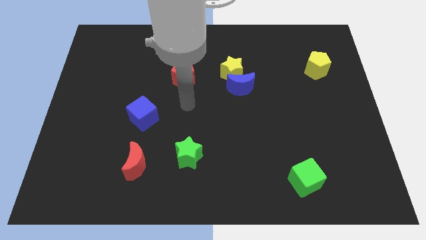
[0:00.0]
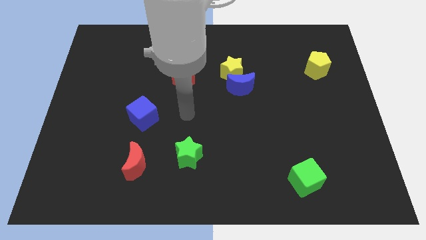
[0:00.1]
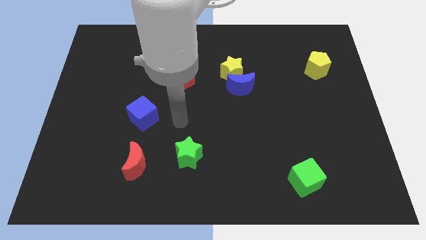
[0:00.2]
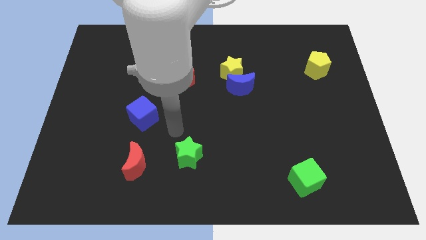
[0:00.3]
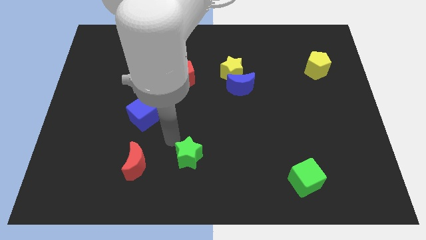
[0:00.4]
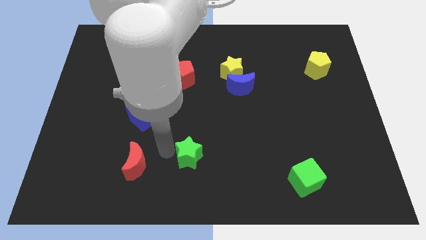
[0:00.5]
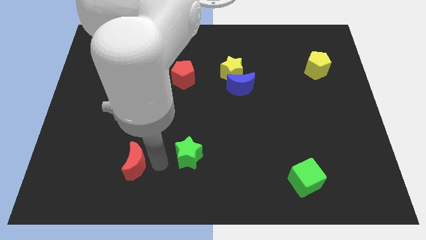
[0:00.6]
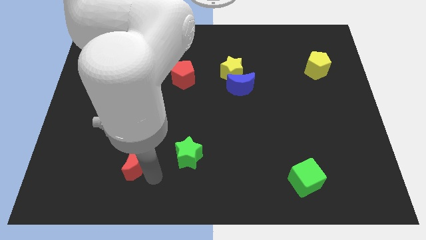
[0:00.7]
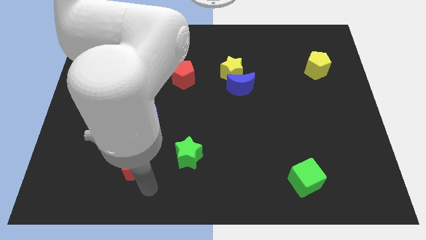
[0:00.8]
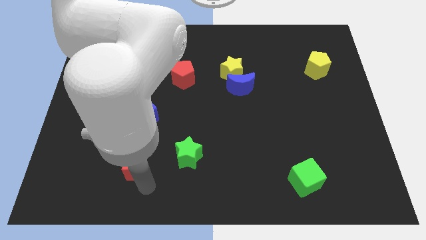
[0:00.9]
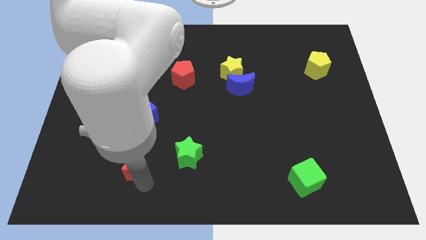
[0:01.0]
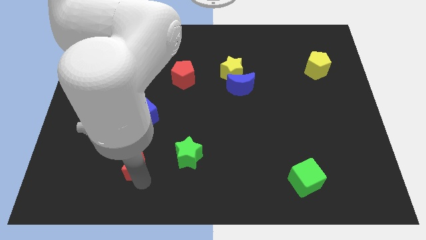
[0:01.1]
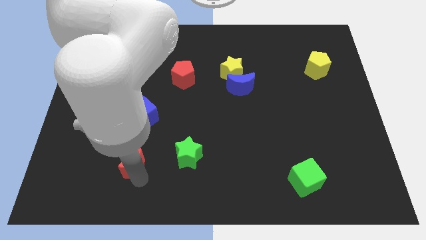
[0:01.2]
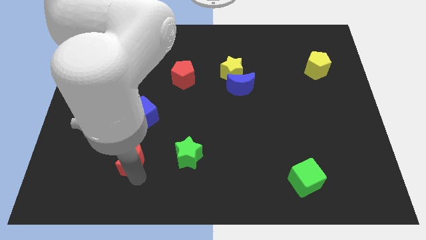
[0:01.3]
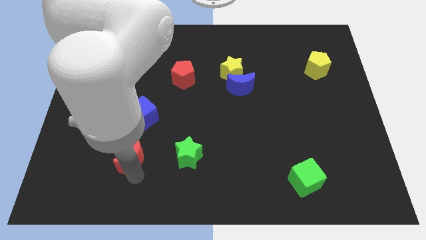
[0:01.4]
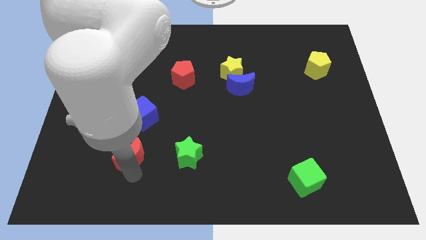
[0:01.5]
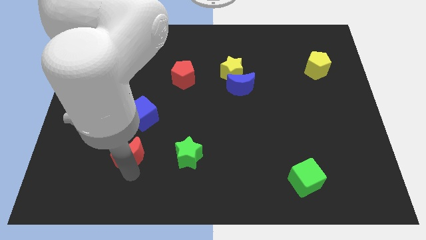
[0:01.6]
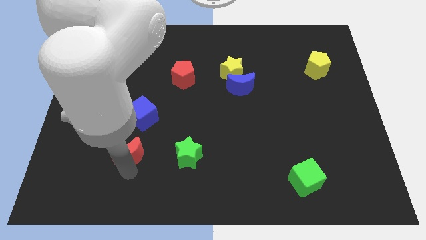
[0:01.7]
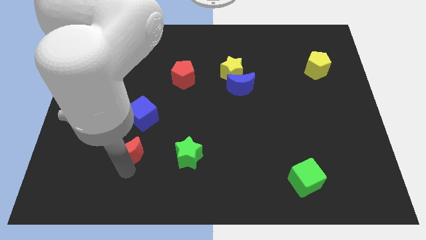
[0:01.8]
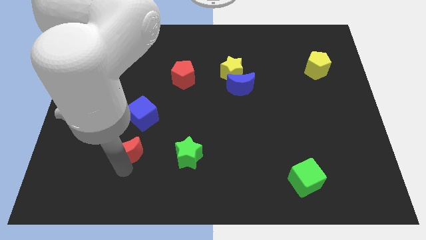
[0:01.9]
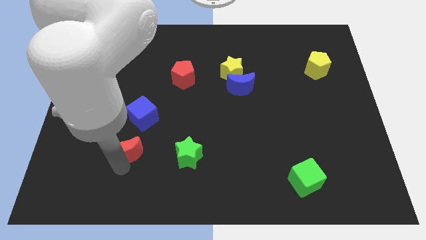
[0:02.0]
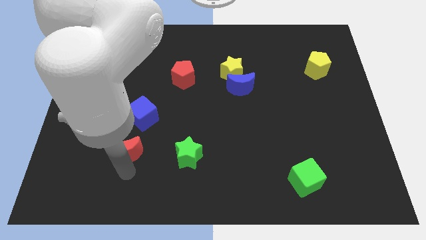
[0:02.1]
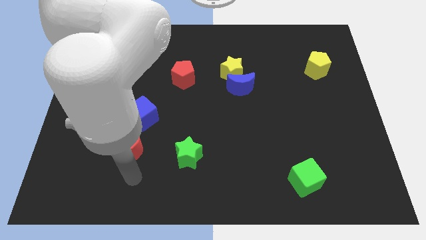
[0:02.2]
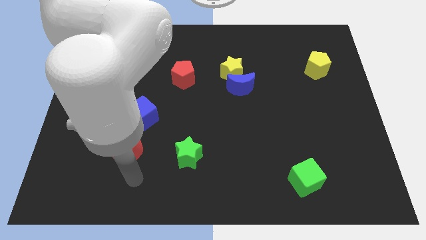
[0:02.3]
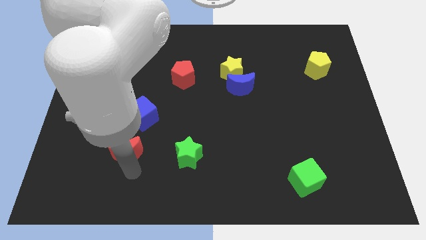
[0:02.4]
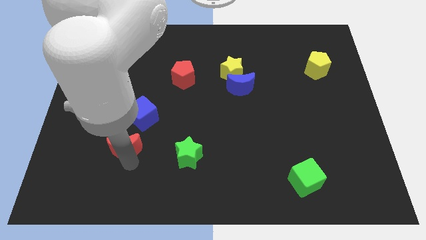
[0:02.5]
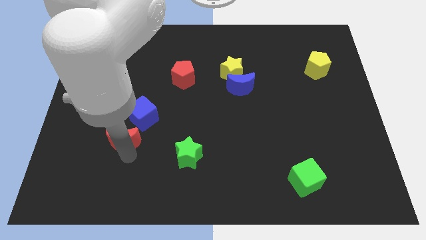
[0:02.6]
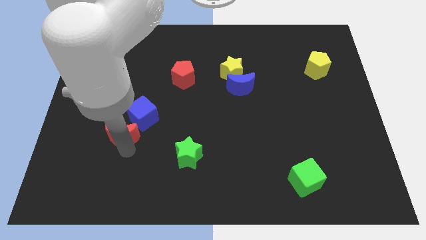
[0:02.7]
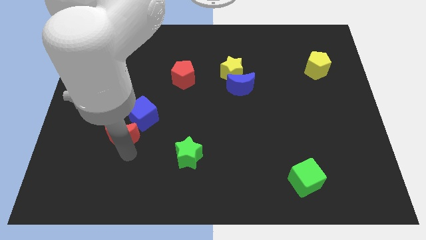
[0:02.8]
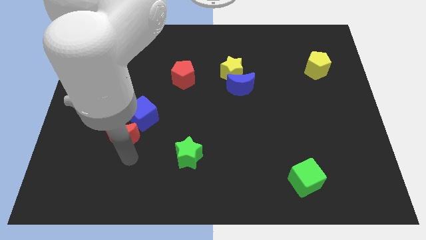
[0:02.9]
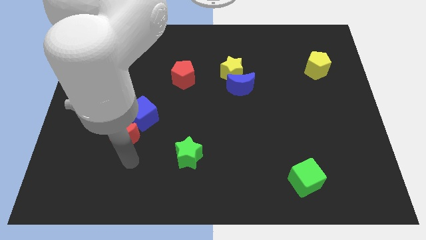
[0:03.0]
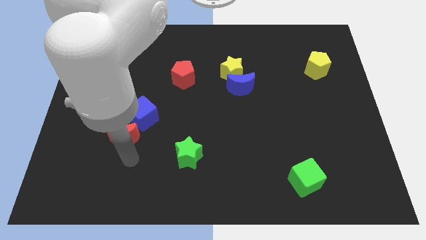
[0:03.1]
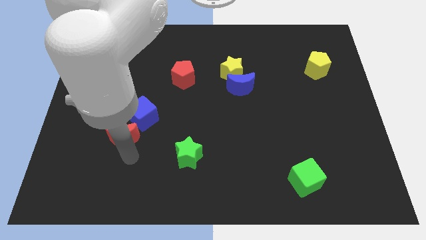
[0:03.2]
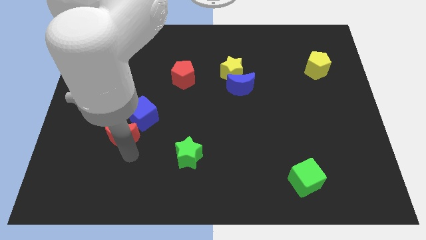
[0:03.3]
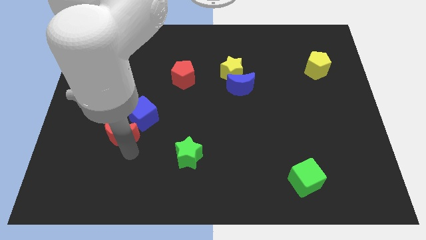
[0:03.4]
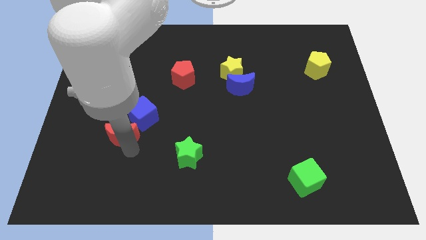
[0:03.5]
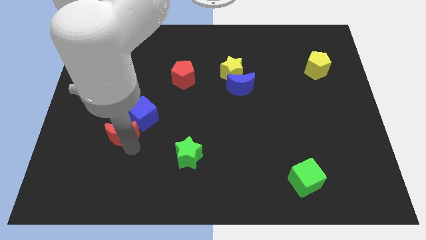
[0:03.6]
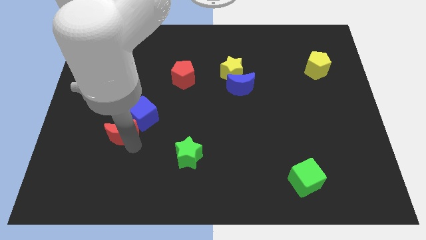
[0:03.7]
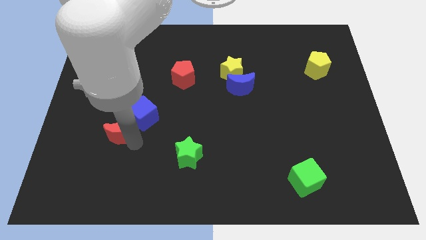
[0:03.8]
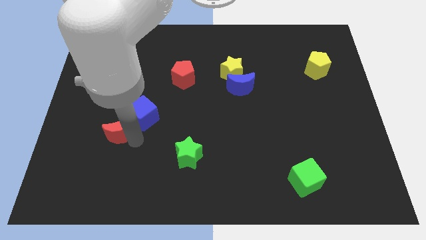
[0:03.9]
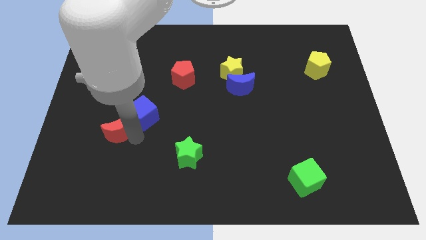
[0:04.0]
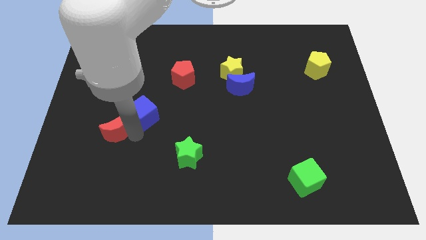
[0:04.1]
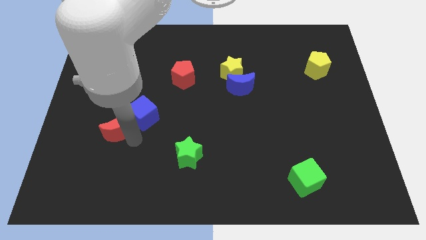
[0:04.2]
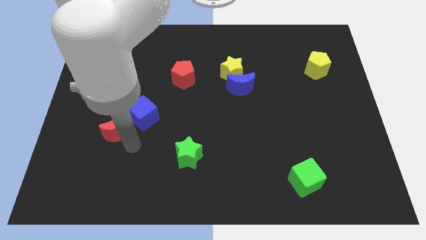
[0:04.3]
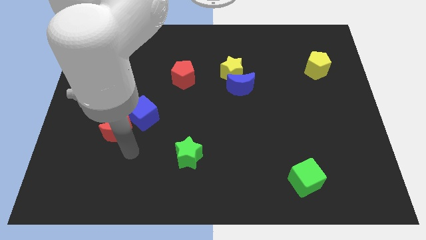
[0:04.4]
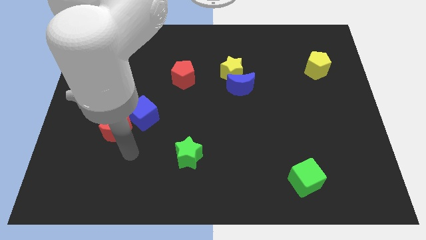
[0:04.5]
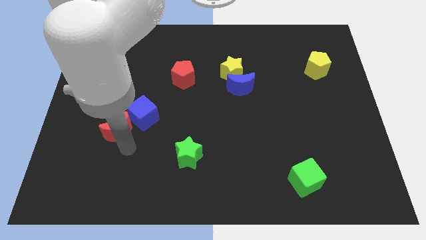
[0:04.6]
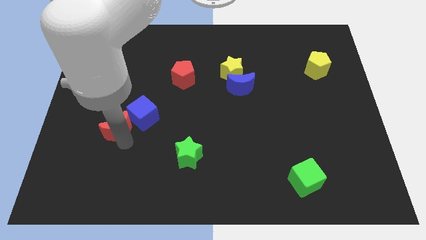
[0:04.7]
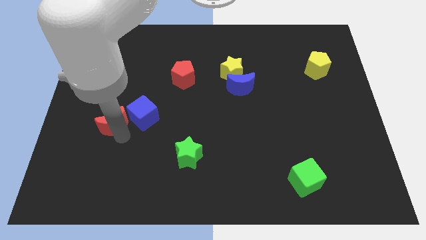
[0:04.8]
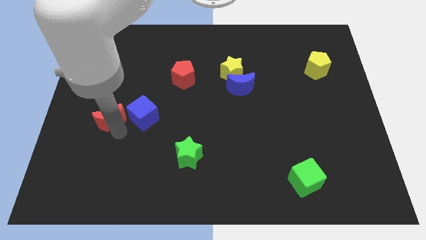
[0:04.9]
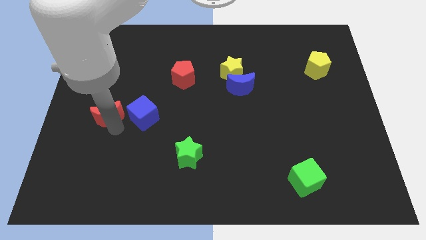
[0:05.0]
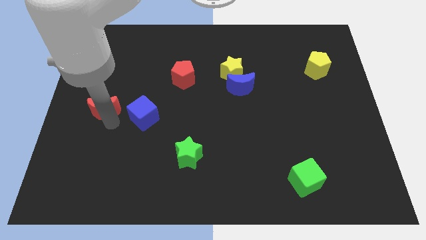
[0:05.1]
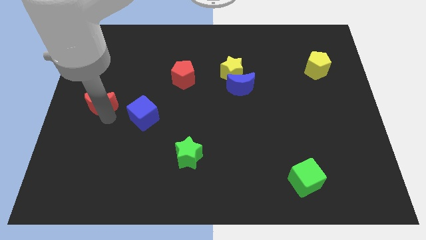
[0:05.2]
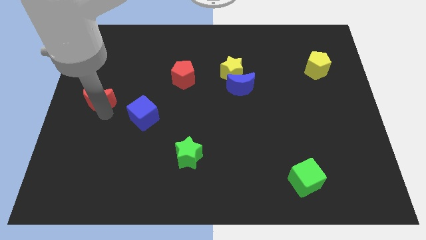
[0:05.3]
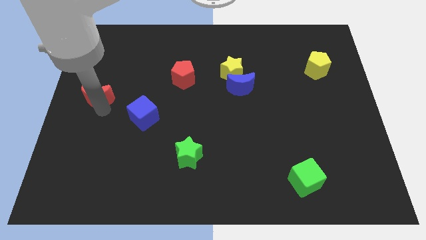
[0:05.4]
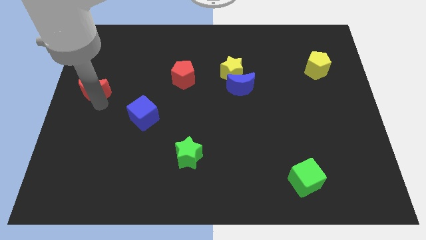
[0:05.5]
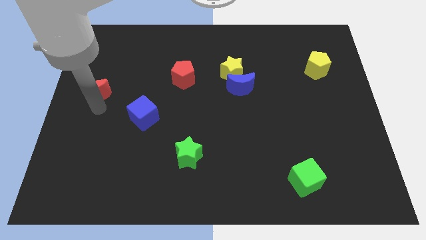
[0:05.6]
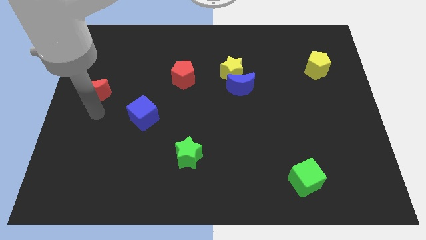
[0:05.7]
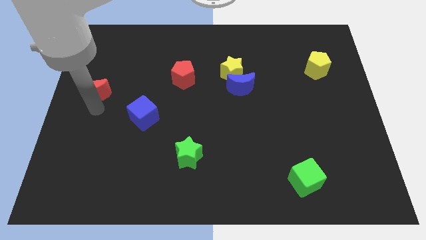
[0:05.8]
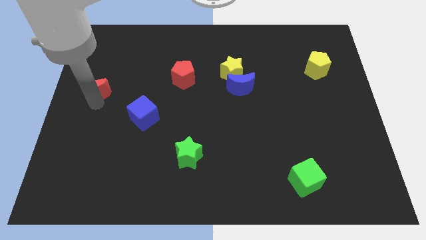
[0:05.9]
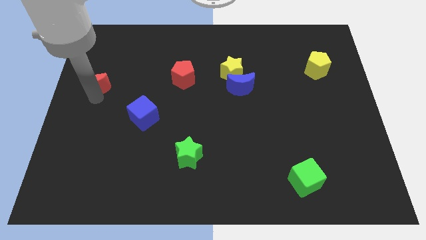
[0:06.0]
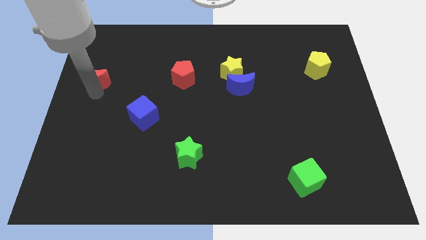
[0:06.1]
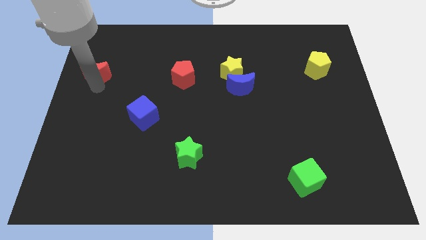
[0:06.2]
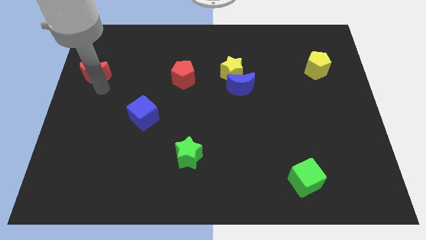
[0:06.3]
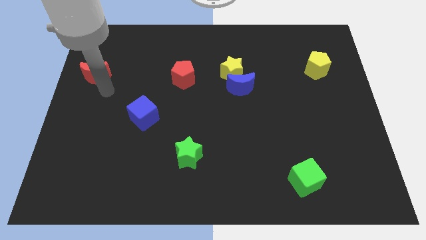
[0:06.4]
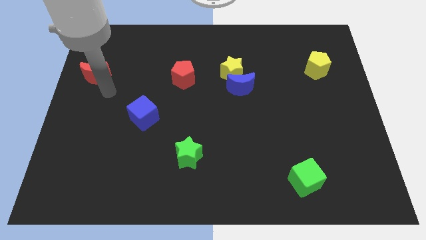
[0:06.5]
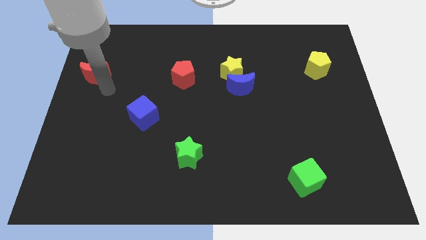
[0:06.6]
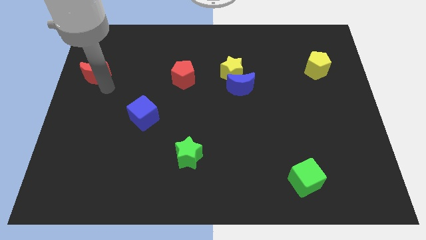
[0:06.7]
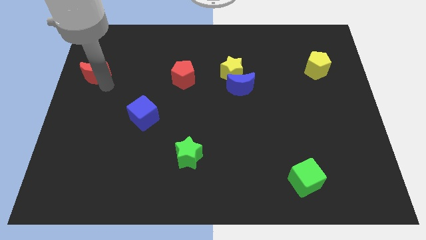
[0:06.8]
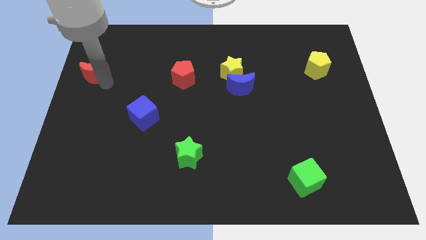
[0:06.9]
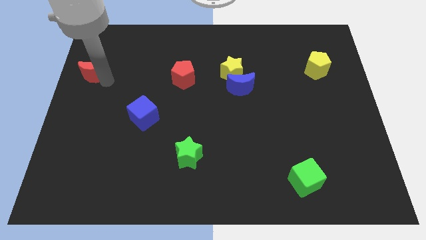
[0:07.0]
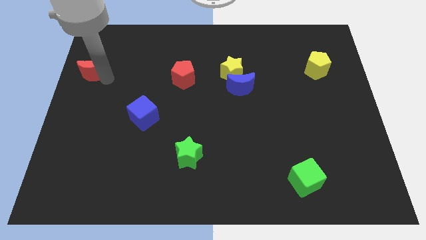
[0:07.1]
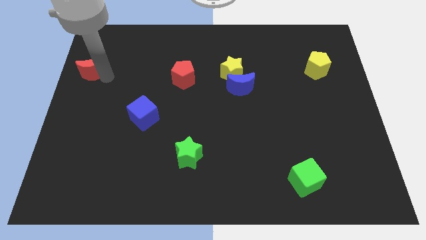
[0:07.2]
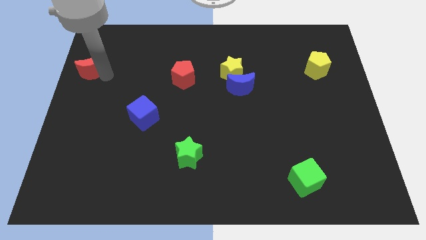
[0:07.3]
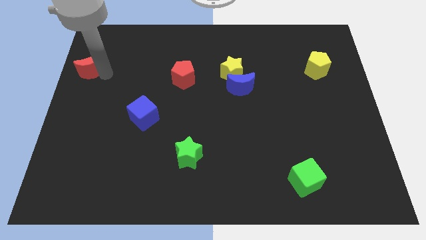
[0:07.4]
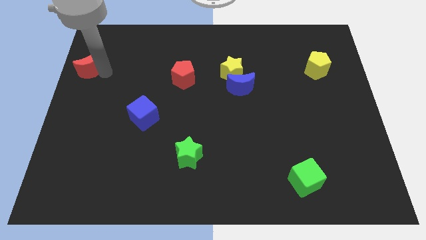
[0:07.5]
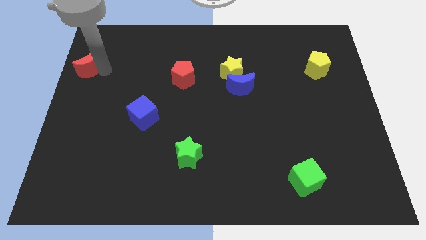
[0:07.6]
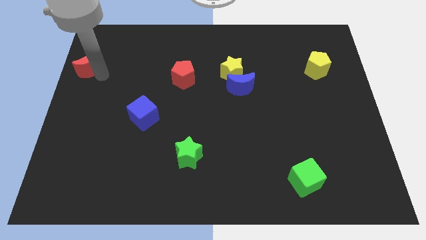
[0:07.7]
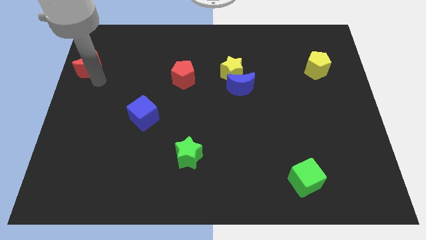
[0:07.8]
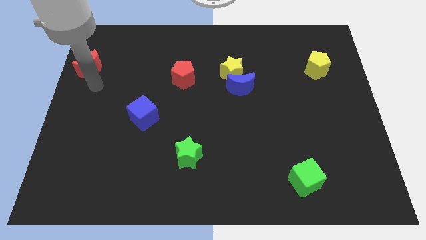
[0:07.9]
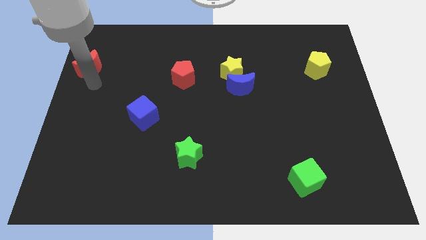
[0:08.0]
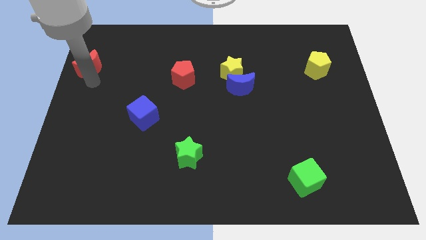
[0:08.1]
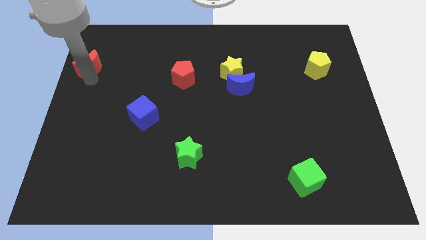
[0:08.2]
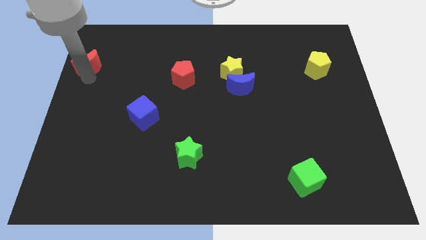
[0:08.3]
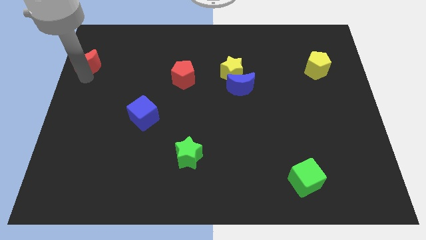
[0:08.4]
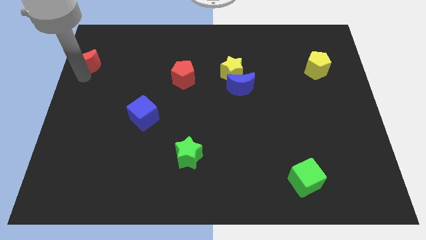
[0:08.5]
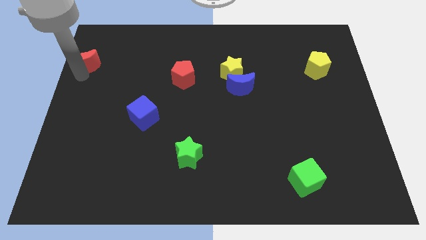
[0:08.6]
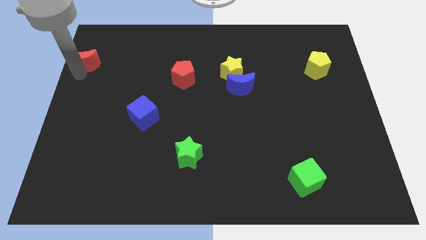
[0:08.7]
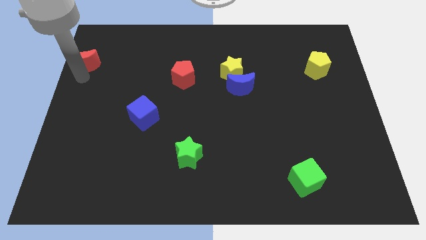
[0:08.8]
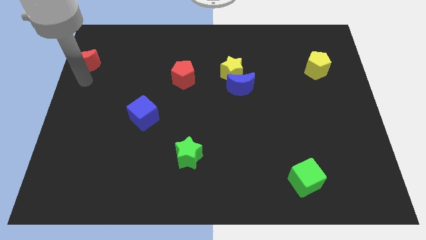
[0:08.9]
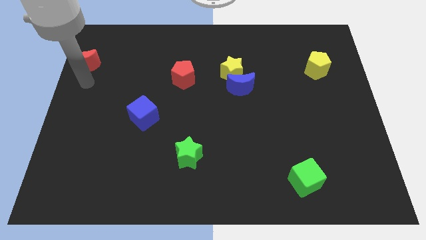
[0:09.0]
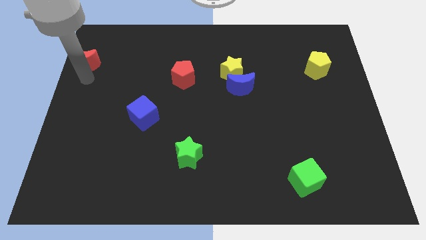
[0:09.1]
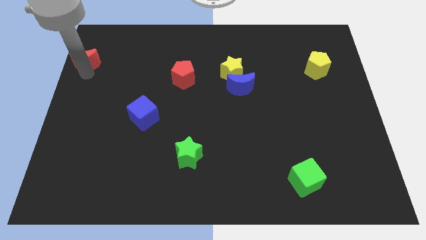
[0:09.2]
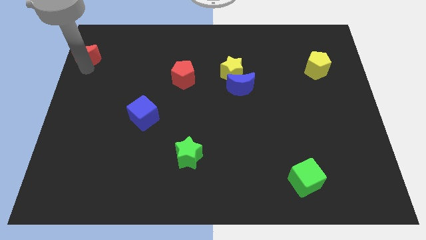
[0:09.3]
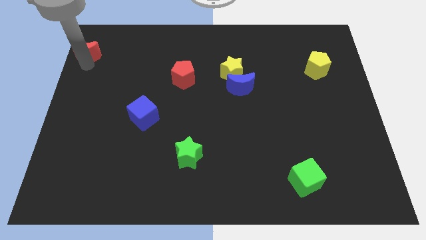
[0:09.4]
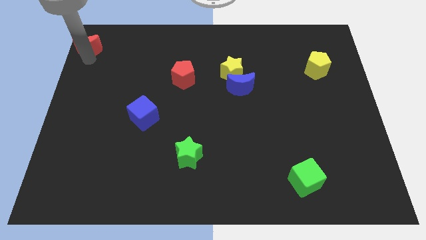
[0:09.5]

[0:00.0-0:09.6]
move the red moon to the top left corner
